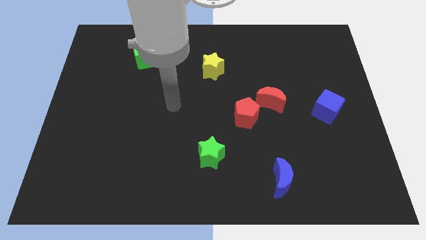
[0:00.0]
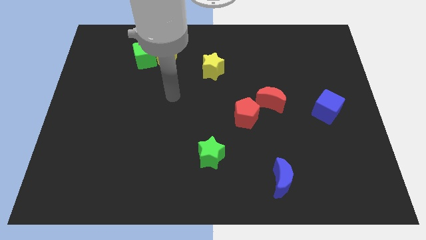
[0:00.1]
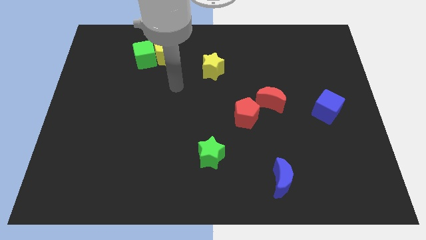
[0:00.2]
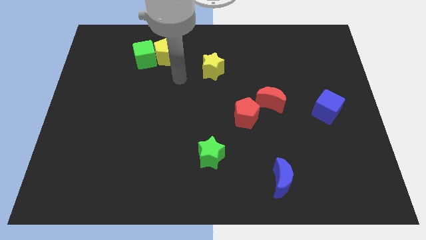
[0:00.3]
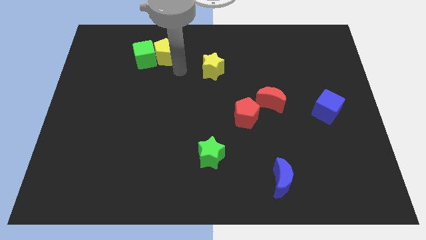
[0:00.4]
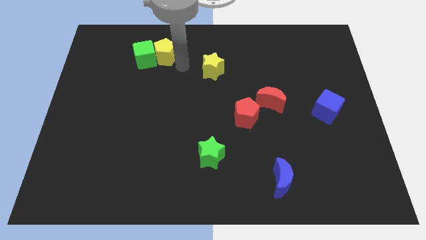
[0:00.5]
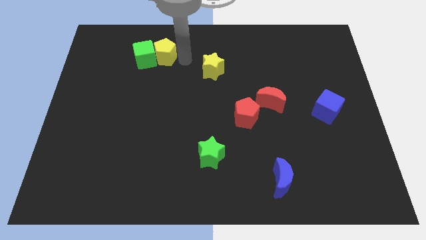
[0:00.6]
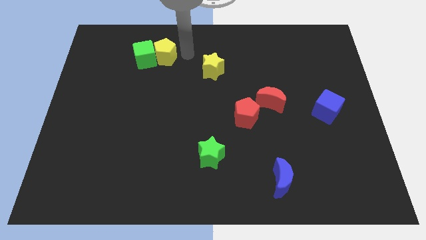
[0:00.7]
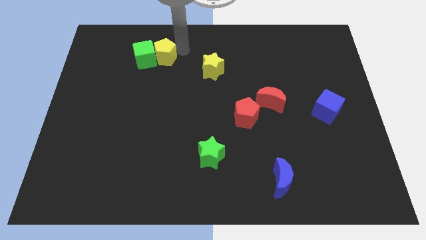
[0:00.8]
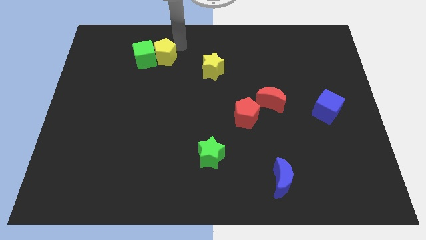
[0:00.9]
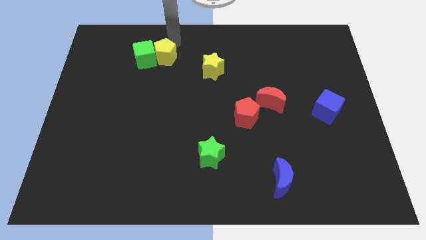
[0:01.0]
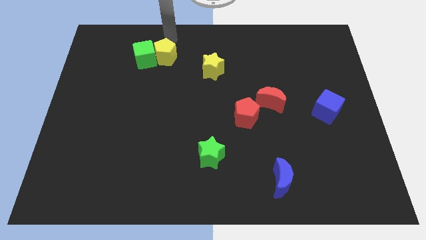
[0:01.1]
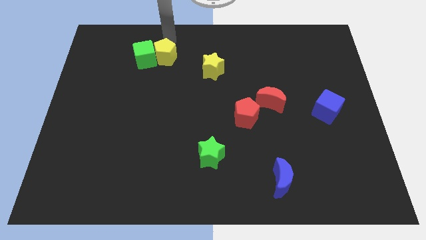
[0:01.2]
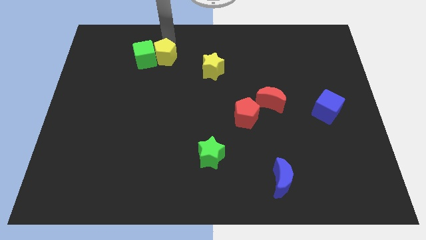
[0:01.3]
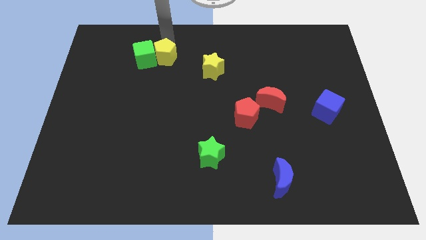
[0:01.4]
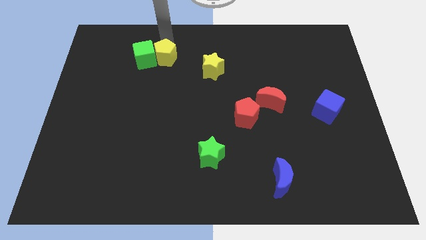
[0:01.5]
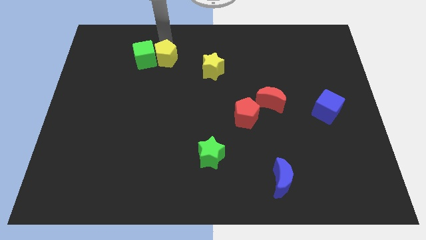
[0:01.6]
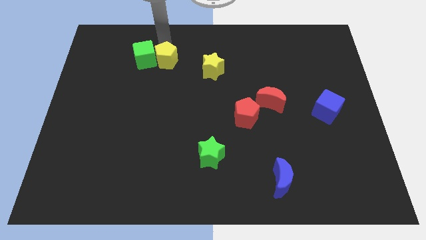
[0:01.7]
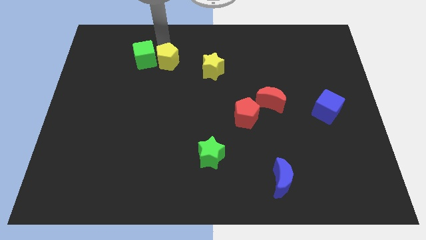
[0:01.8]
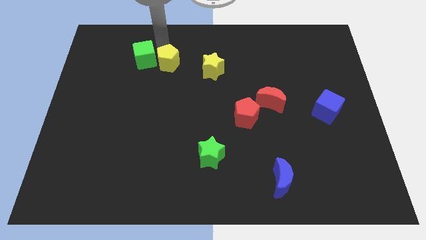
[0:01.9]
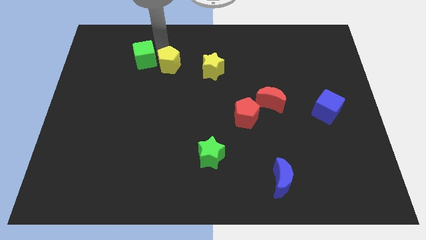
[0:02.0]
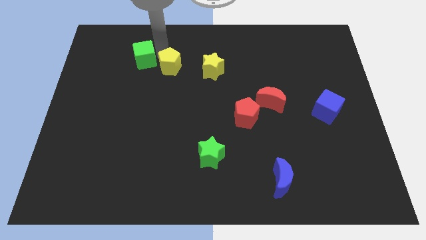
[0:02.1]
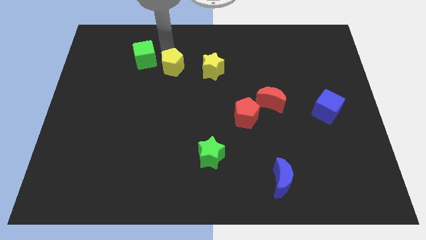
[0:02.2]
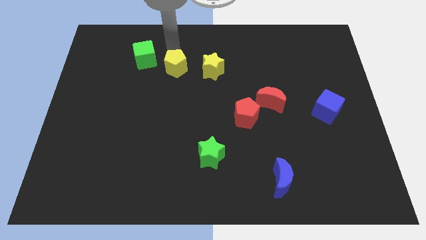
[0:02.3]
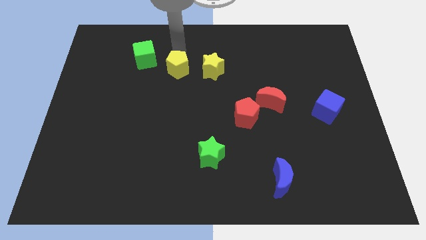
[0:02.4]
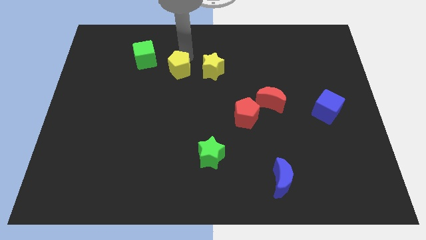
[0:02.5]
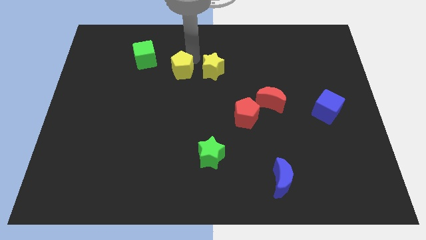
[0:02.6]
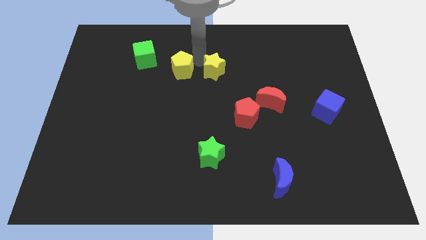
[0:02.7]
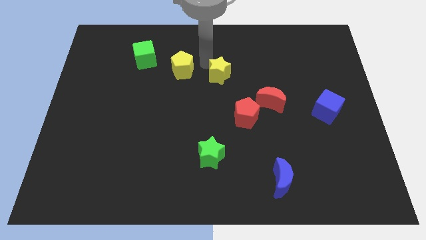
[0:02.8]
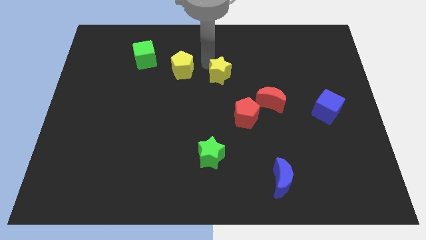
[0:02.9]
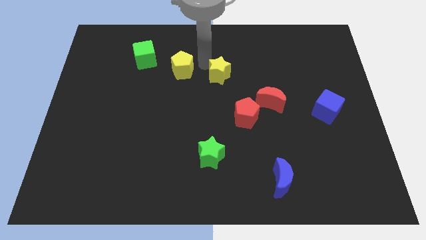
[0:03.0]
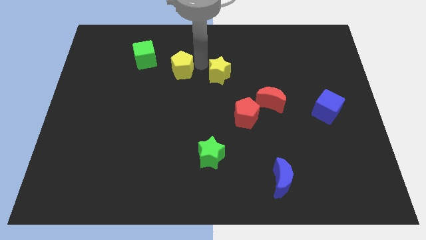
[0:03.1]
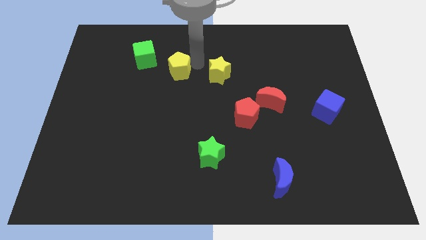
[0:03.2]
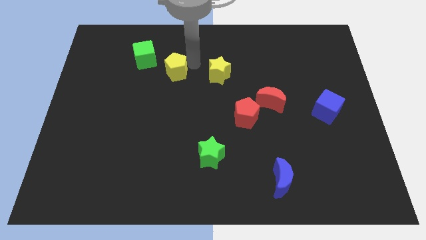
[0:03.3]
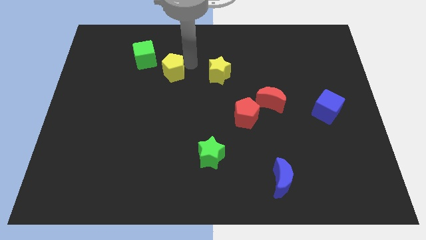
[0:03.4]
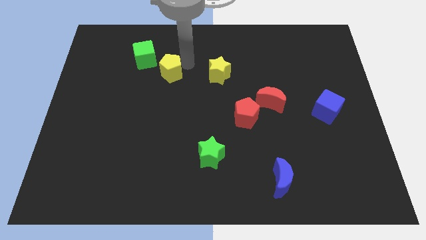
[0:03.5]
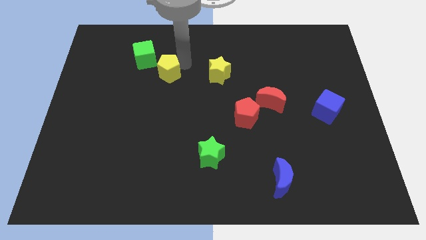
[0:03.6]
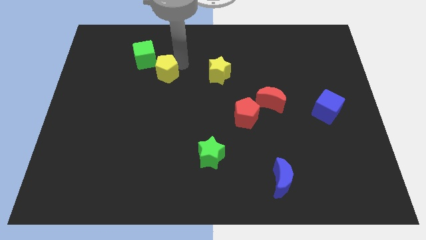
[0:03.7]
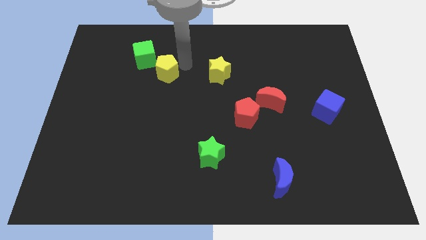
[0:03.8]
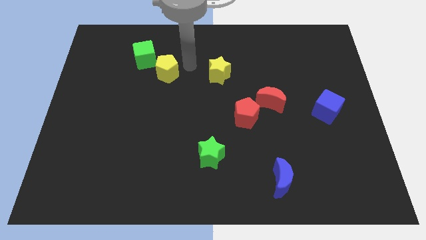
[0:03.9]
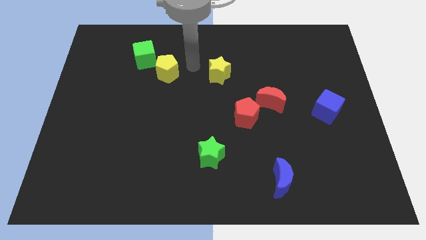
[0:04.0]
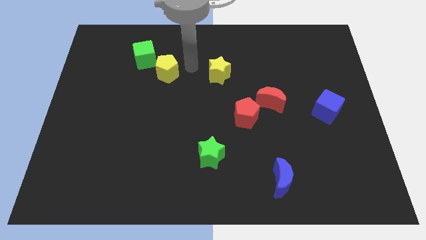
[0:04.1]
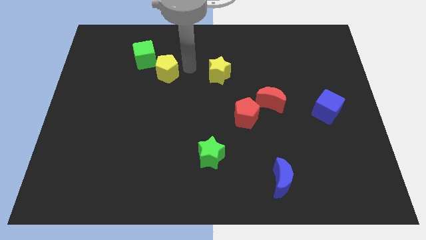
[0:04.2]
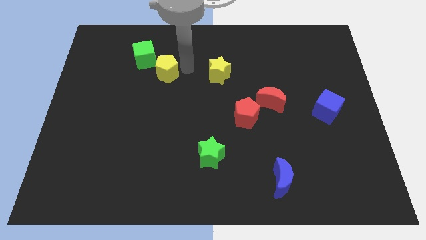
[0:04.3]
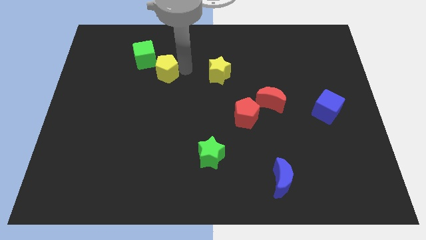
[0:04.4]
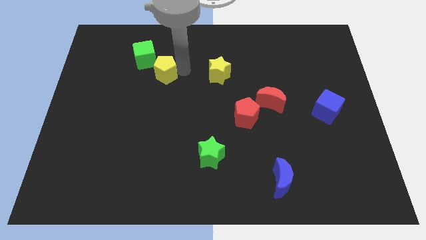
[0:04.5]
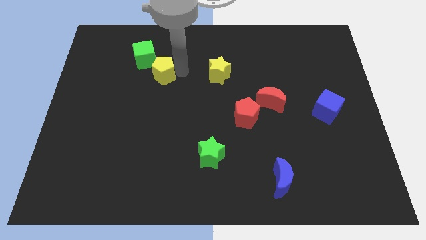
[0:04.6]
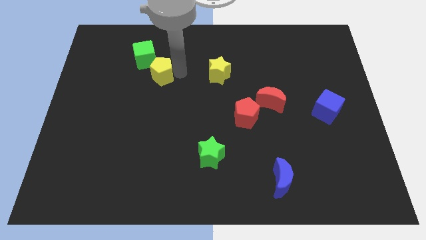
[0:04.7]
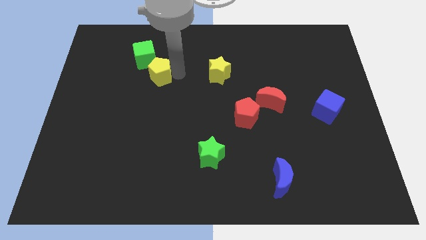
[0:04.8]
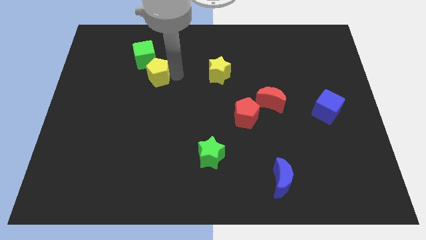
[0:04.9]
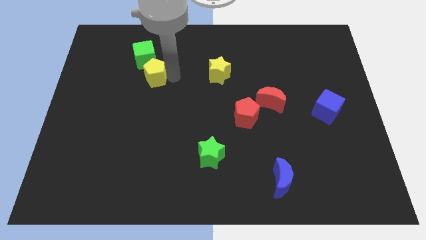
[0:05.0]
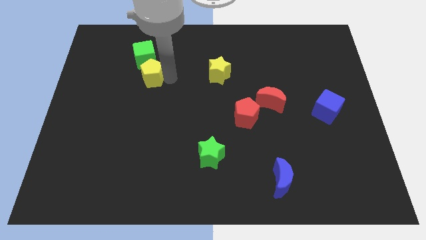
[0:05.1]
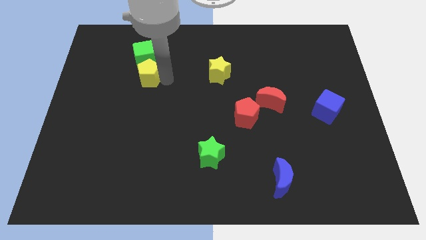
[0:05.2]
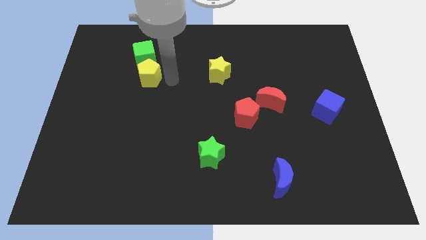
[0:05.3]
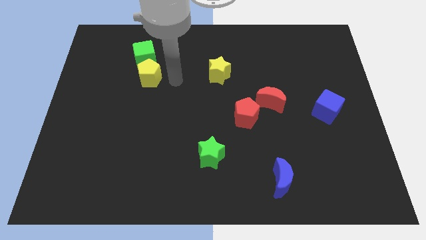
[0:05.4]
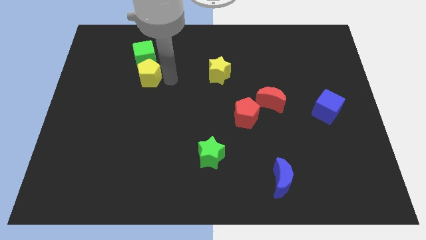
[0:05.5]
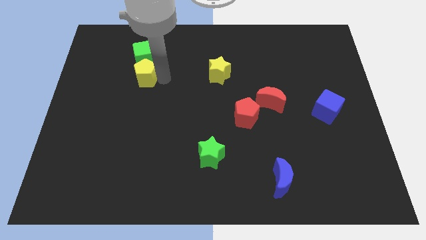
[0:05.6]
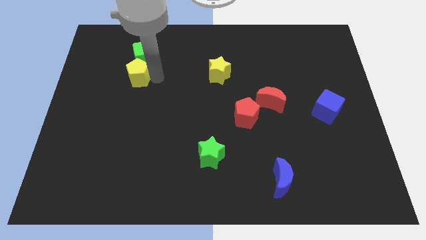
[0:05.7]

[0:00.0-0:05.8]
move the yellow pentagon to the bottom left side of the green cube

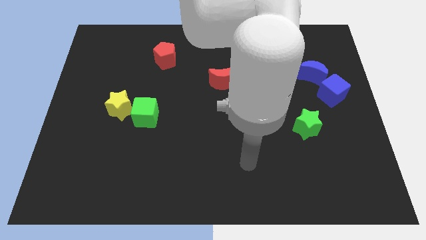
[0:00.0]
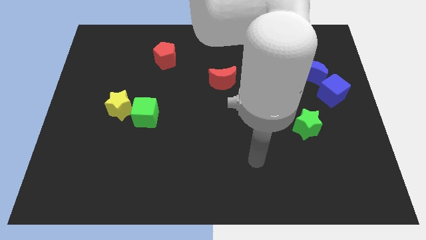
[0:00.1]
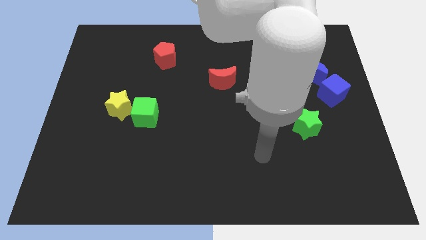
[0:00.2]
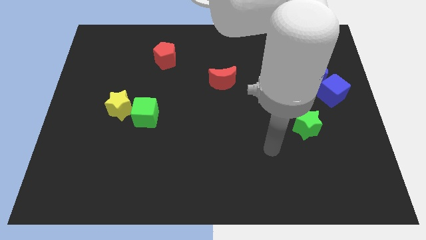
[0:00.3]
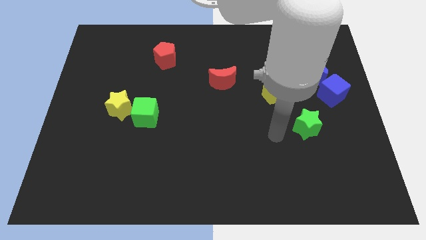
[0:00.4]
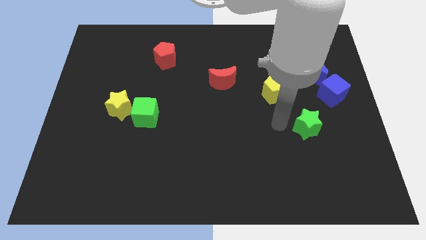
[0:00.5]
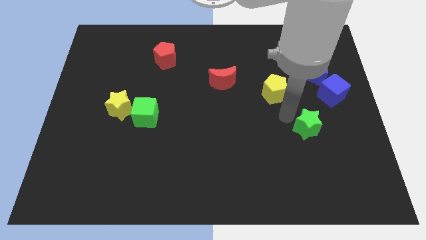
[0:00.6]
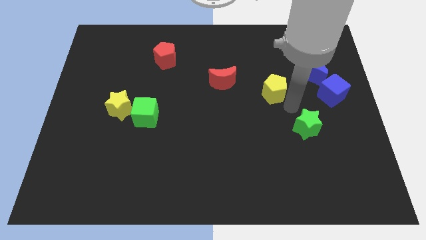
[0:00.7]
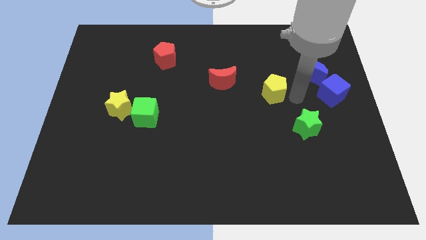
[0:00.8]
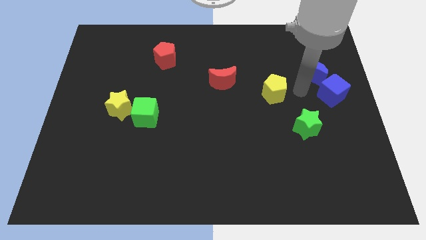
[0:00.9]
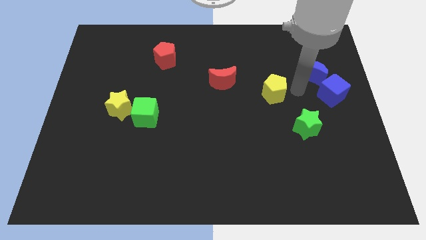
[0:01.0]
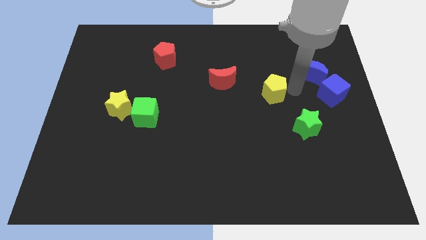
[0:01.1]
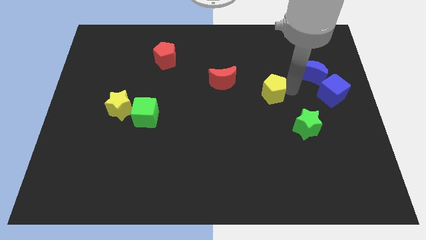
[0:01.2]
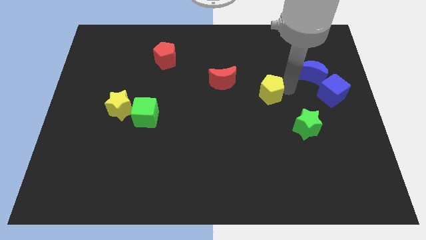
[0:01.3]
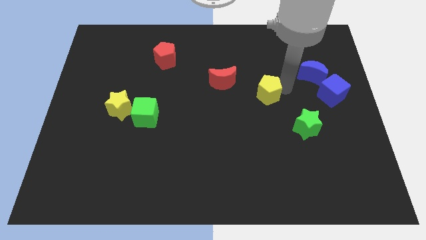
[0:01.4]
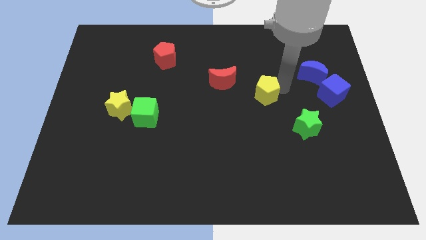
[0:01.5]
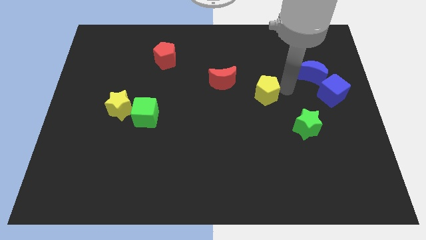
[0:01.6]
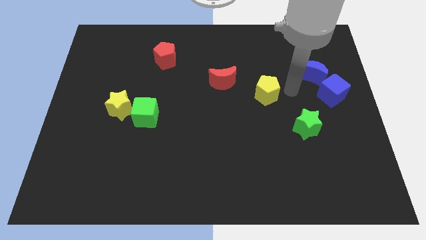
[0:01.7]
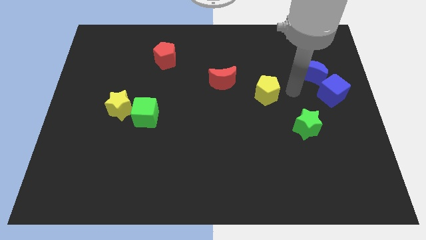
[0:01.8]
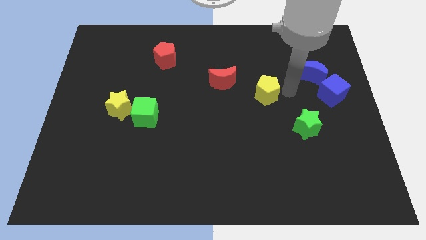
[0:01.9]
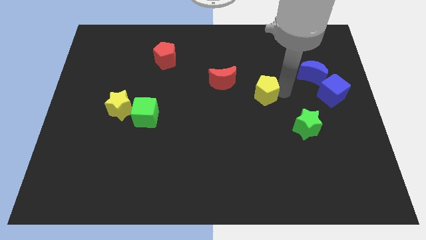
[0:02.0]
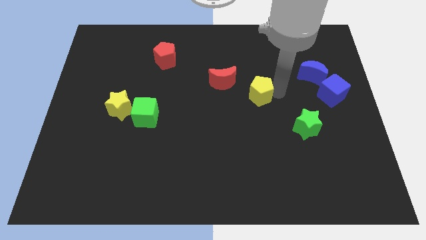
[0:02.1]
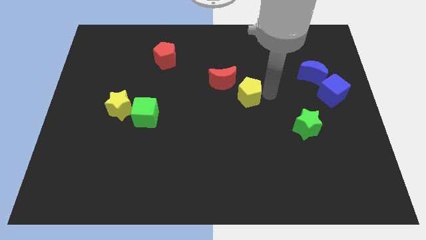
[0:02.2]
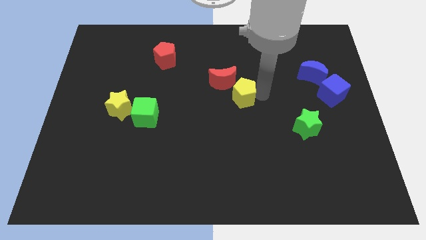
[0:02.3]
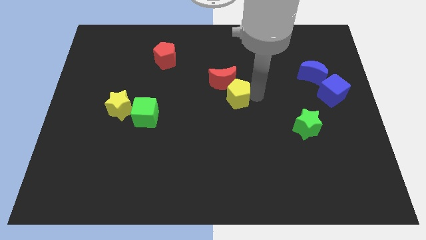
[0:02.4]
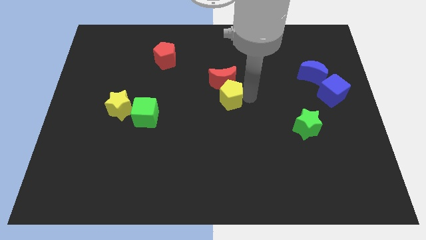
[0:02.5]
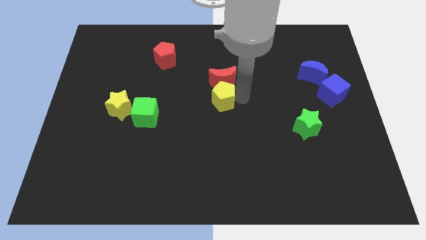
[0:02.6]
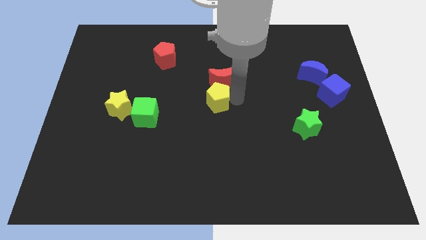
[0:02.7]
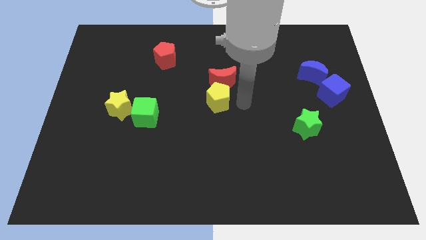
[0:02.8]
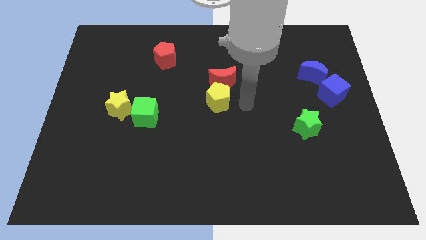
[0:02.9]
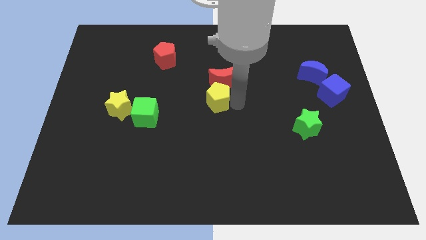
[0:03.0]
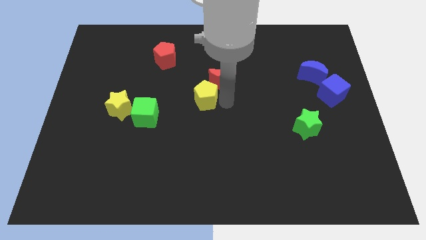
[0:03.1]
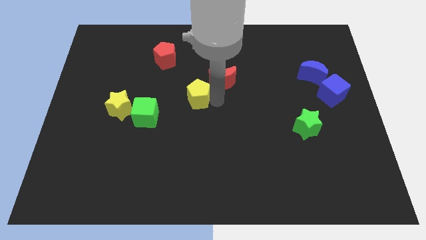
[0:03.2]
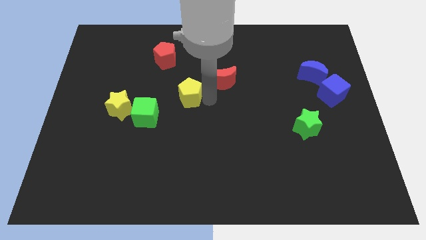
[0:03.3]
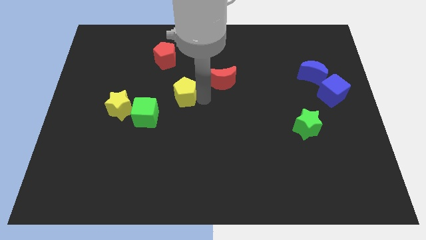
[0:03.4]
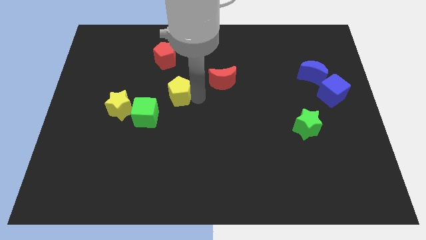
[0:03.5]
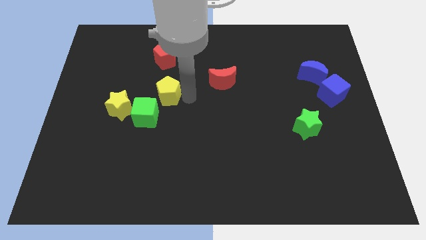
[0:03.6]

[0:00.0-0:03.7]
put the yellow pentagon to the top side of the green cube
